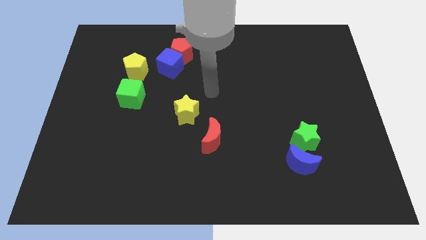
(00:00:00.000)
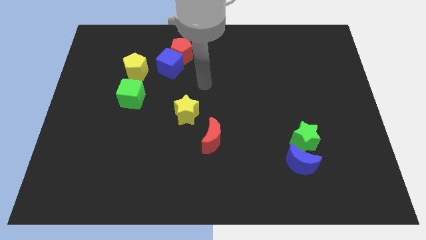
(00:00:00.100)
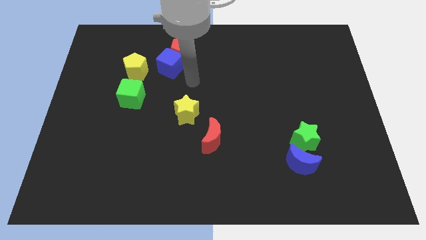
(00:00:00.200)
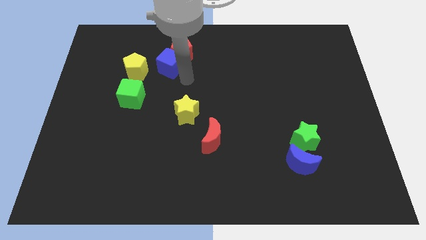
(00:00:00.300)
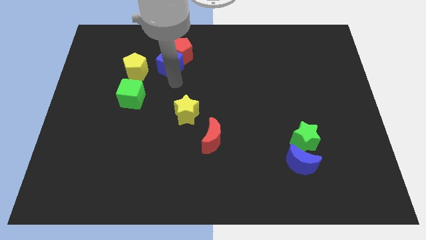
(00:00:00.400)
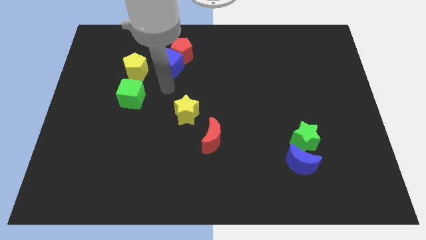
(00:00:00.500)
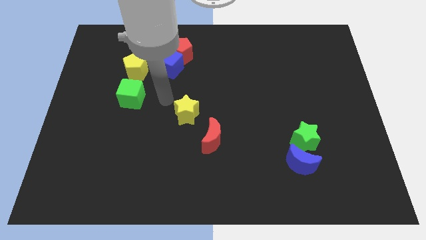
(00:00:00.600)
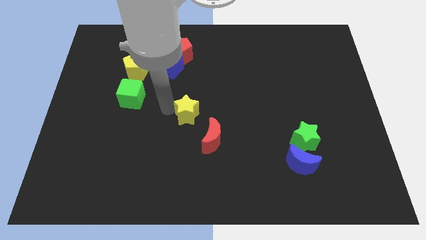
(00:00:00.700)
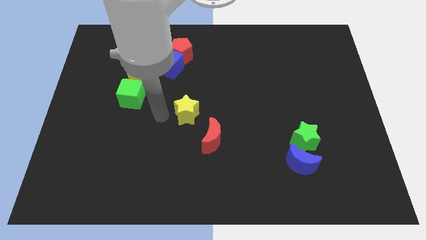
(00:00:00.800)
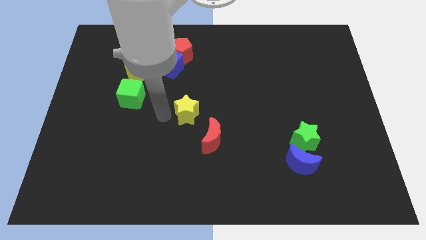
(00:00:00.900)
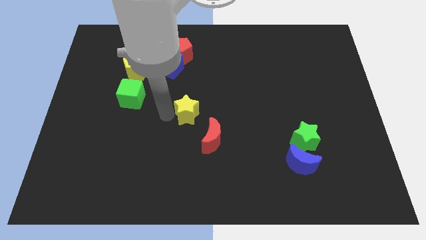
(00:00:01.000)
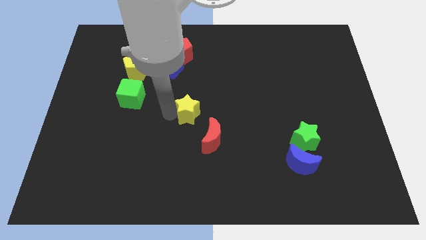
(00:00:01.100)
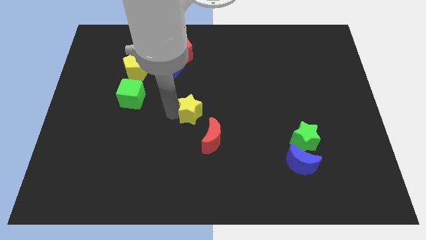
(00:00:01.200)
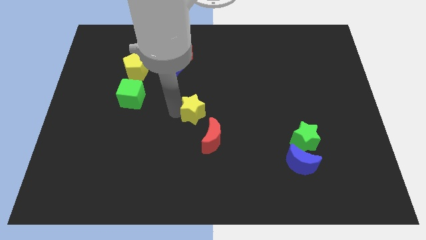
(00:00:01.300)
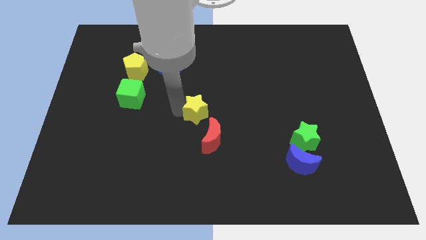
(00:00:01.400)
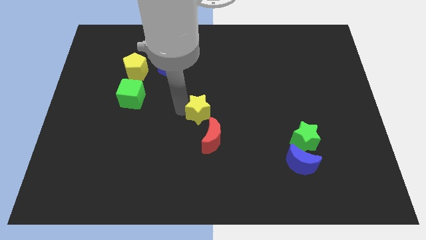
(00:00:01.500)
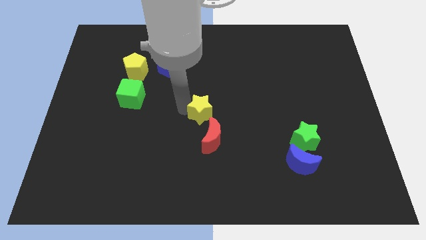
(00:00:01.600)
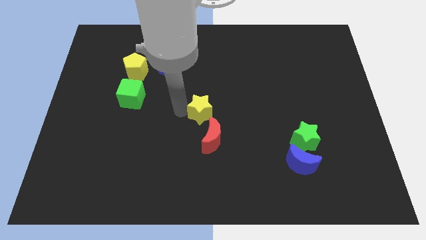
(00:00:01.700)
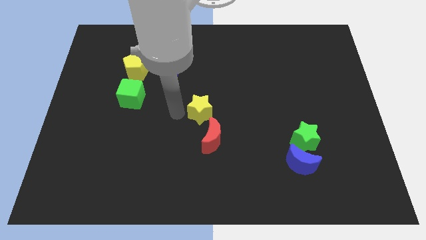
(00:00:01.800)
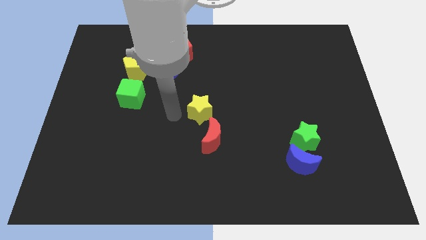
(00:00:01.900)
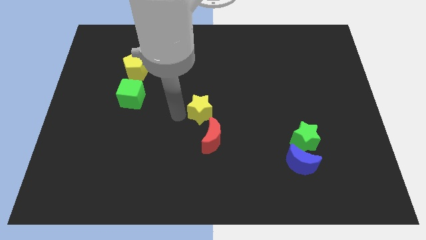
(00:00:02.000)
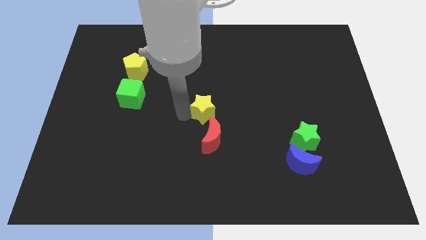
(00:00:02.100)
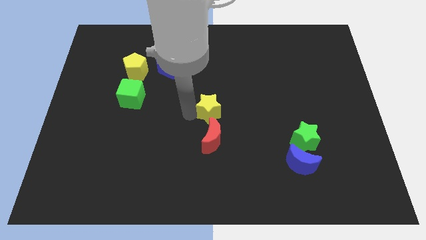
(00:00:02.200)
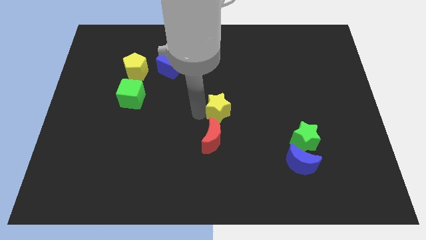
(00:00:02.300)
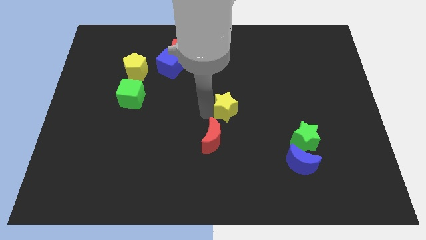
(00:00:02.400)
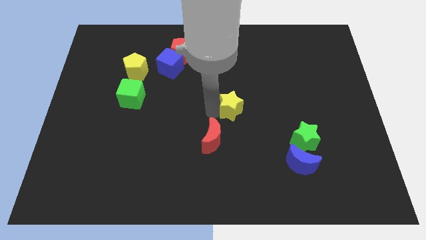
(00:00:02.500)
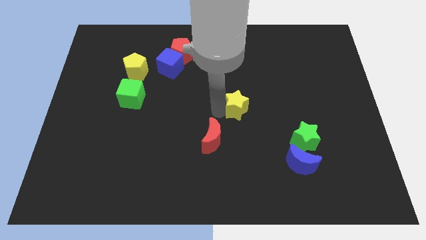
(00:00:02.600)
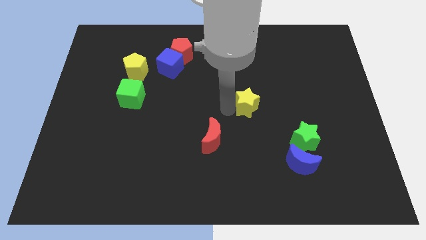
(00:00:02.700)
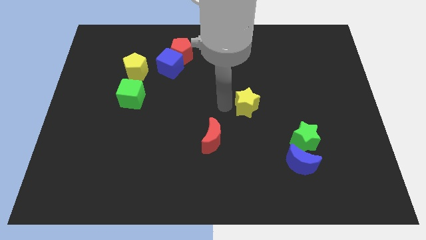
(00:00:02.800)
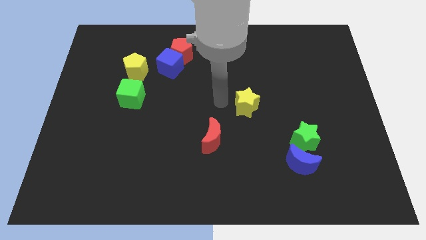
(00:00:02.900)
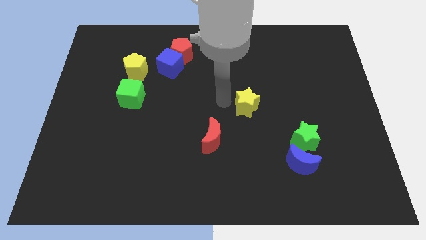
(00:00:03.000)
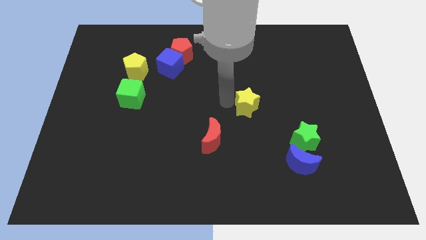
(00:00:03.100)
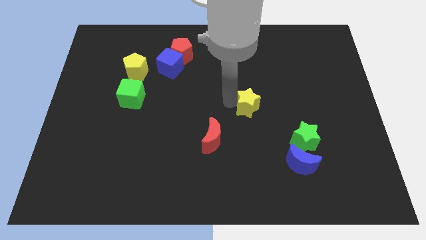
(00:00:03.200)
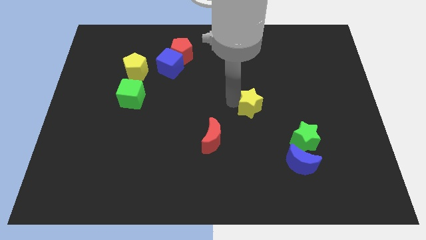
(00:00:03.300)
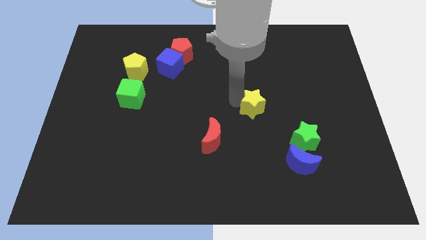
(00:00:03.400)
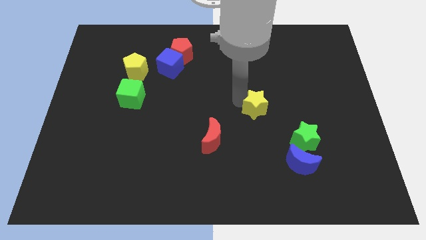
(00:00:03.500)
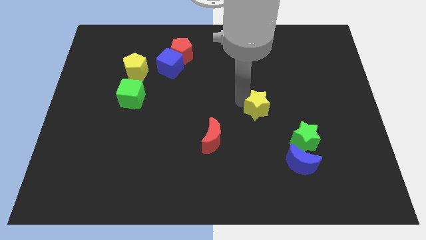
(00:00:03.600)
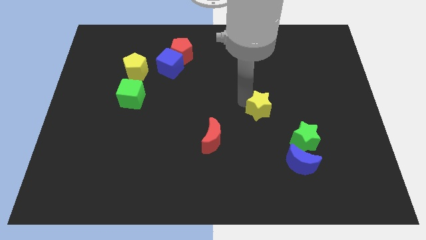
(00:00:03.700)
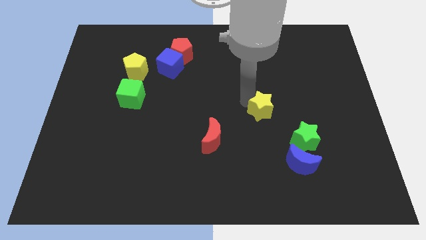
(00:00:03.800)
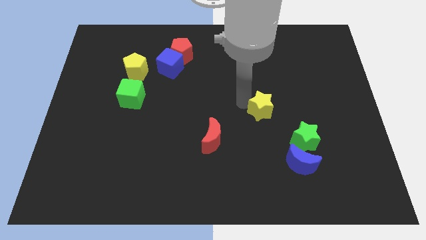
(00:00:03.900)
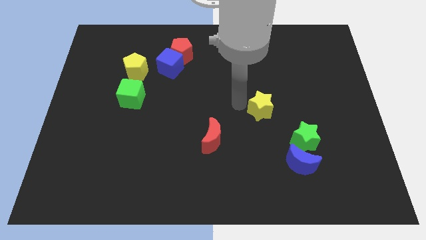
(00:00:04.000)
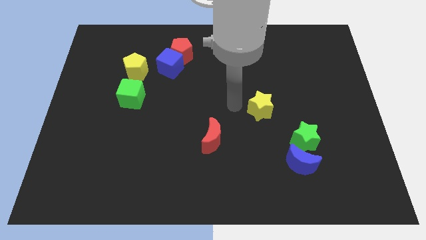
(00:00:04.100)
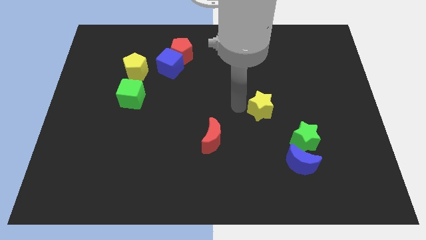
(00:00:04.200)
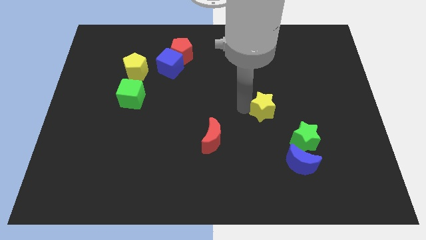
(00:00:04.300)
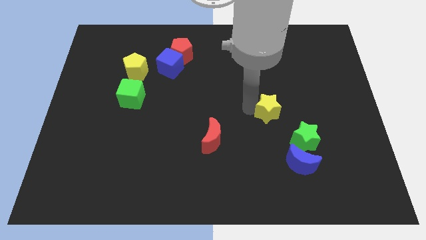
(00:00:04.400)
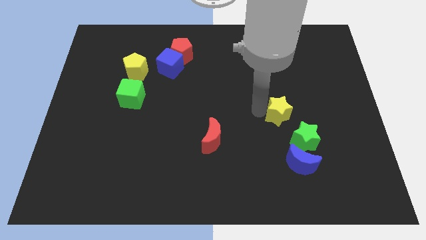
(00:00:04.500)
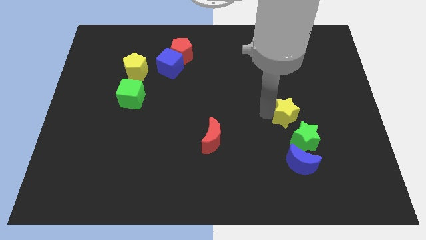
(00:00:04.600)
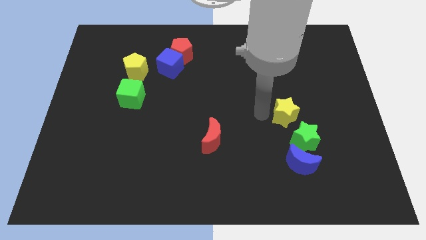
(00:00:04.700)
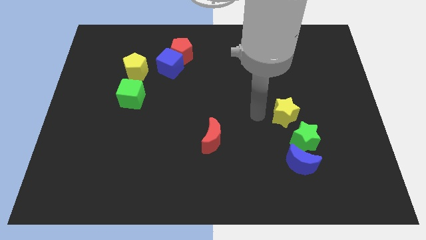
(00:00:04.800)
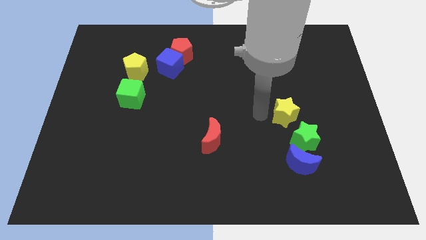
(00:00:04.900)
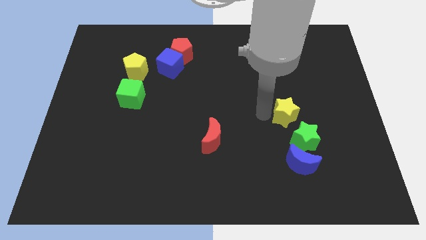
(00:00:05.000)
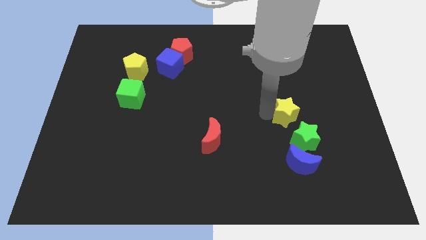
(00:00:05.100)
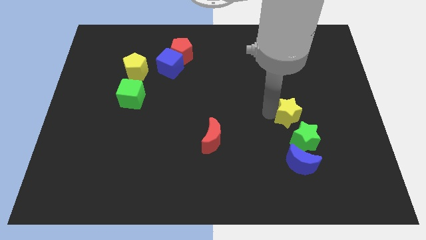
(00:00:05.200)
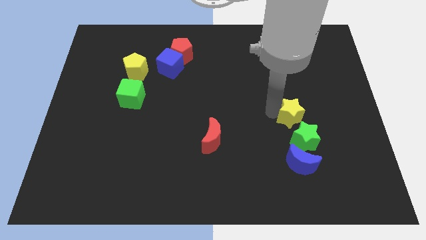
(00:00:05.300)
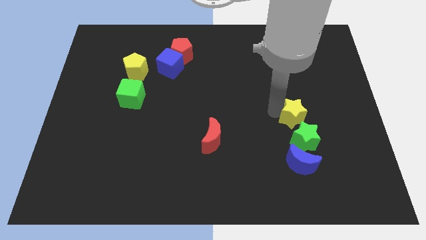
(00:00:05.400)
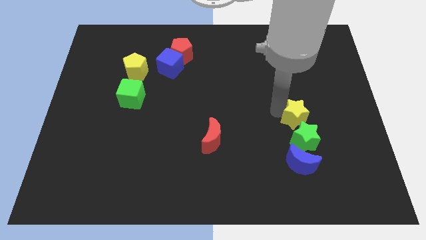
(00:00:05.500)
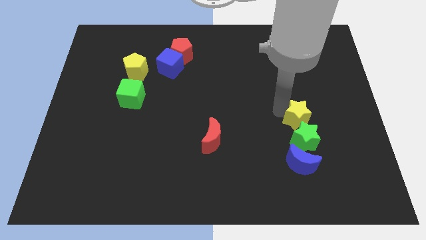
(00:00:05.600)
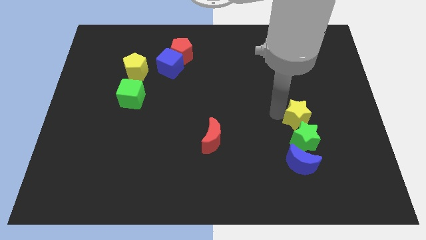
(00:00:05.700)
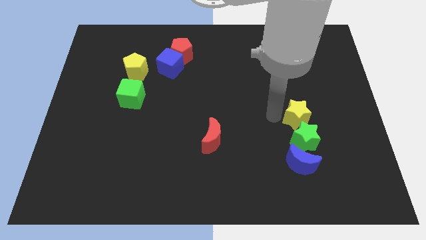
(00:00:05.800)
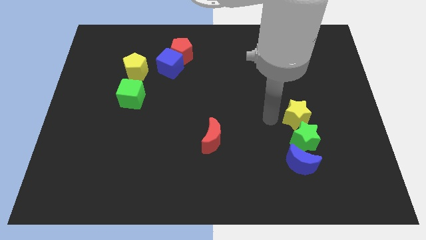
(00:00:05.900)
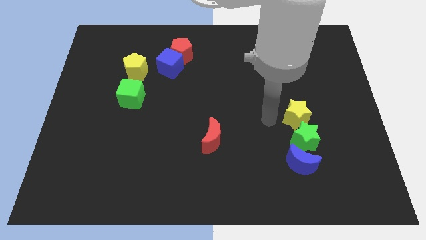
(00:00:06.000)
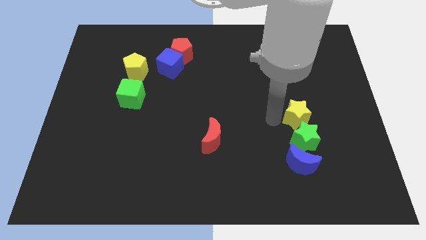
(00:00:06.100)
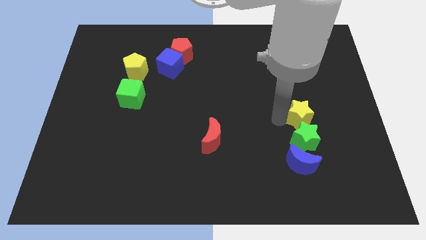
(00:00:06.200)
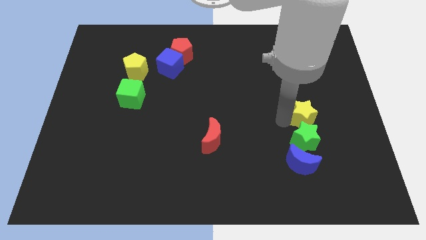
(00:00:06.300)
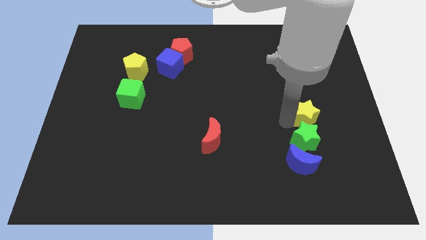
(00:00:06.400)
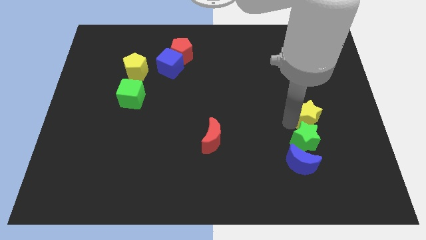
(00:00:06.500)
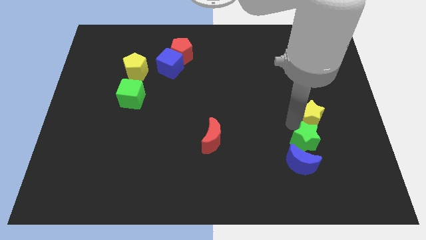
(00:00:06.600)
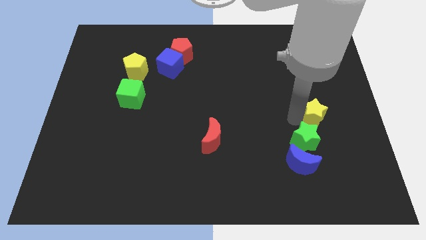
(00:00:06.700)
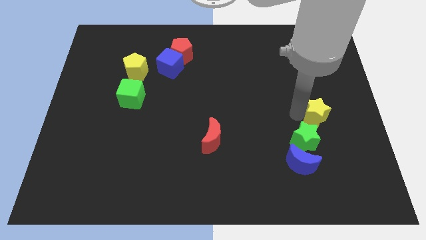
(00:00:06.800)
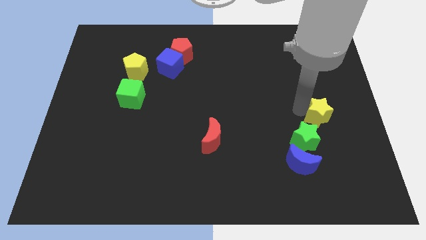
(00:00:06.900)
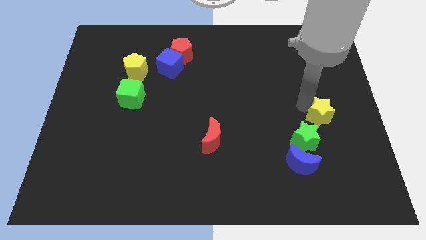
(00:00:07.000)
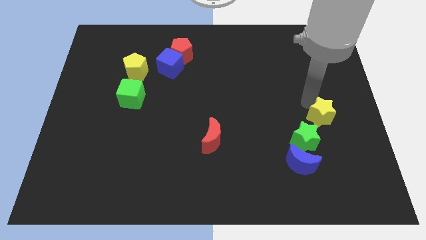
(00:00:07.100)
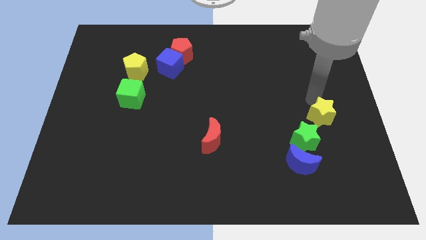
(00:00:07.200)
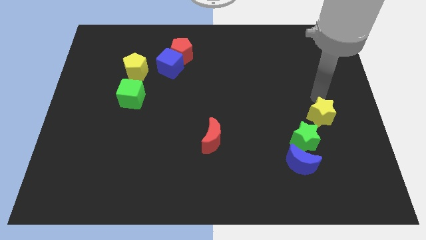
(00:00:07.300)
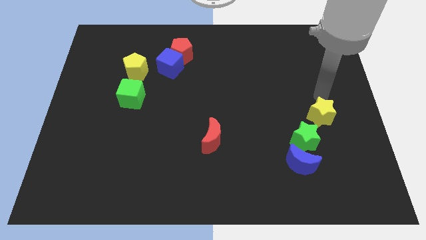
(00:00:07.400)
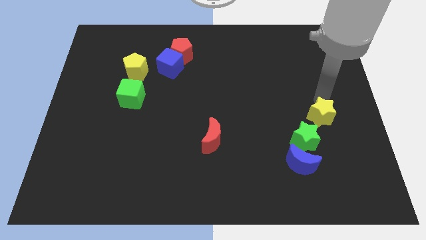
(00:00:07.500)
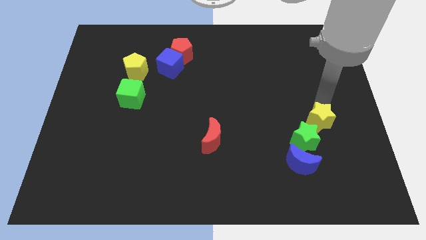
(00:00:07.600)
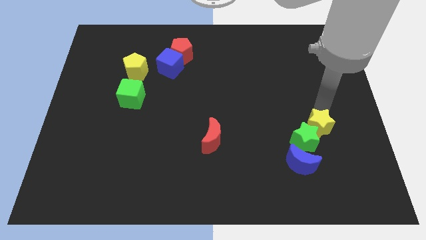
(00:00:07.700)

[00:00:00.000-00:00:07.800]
put the yellow star to the top right side of the blue moon
